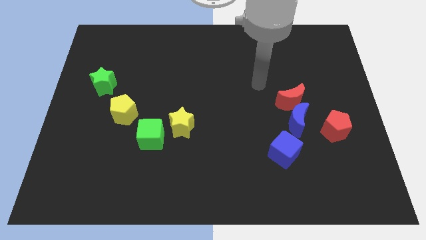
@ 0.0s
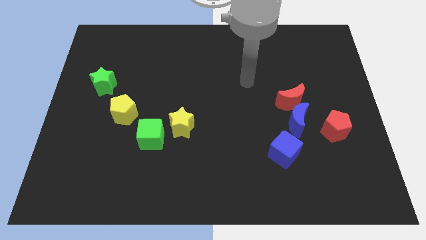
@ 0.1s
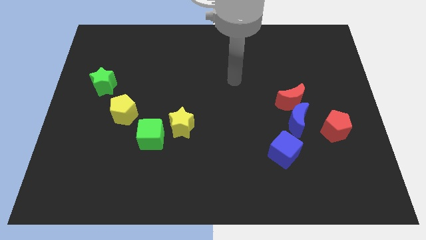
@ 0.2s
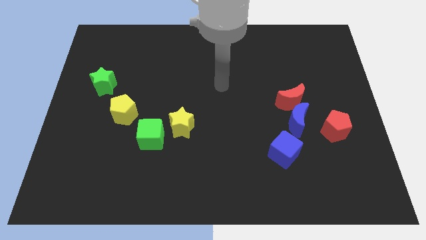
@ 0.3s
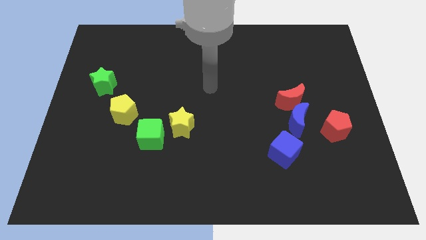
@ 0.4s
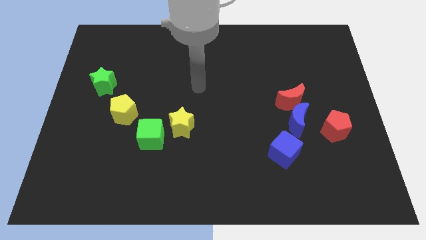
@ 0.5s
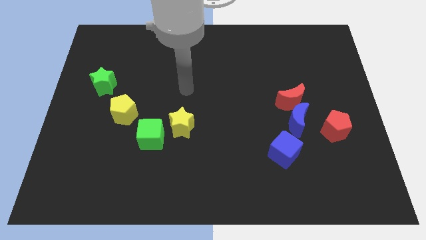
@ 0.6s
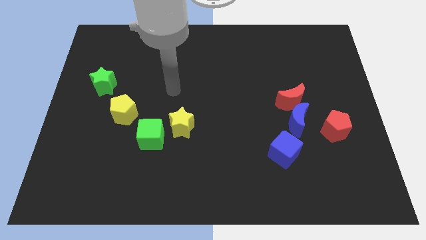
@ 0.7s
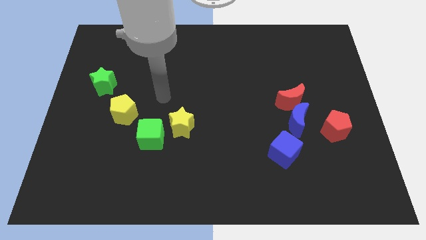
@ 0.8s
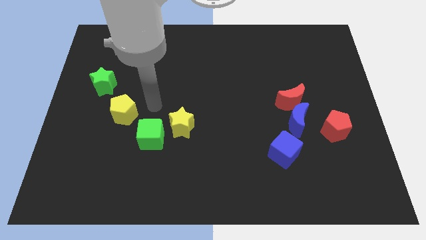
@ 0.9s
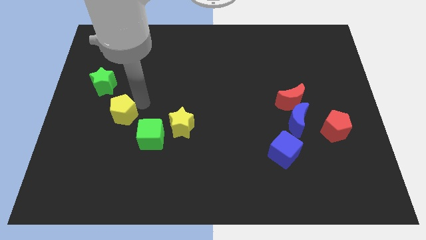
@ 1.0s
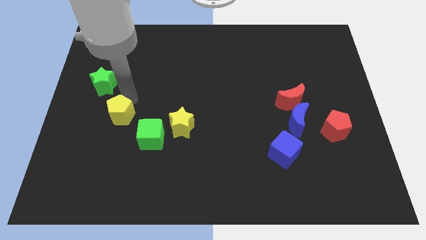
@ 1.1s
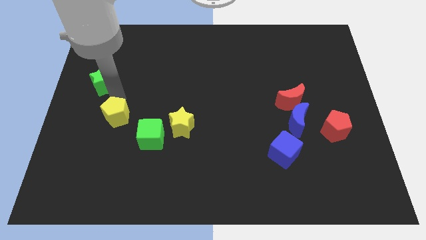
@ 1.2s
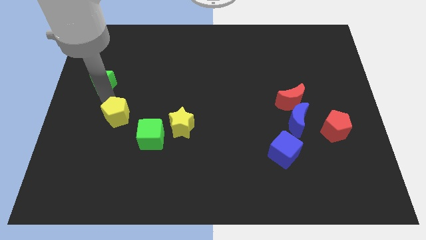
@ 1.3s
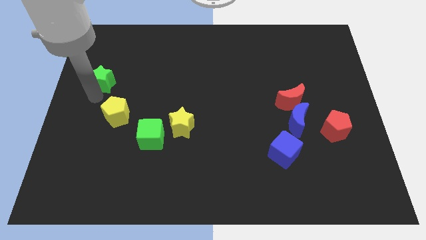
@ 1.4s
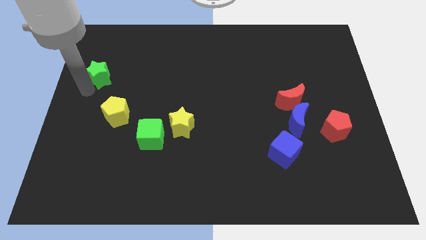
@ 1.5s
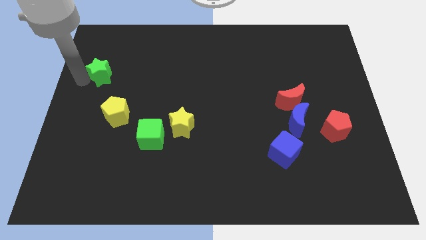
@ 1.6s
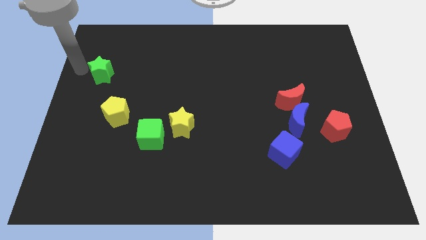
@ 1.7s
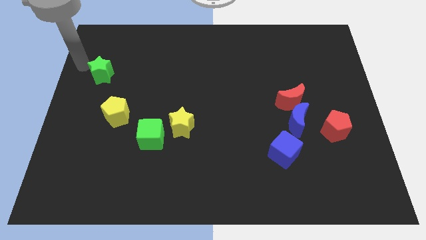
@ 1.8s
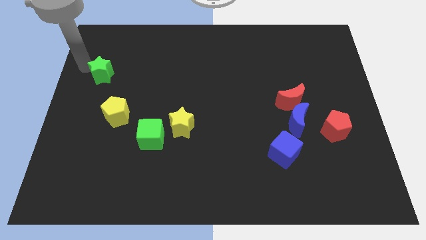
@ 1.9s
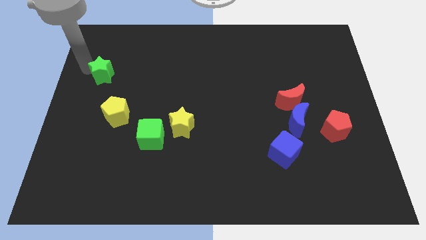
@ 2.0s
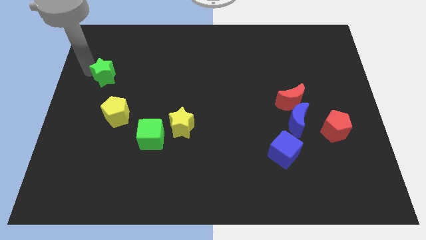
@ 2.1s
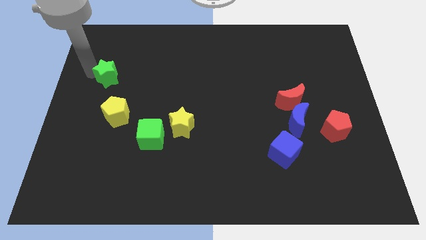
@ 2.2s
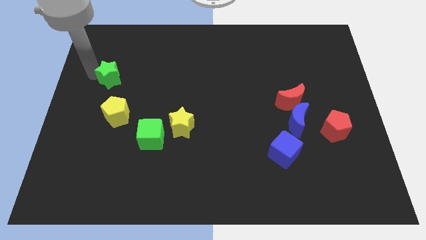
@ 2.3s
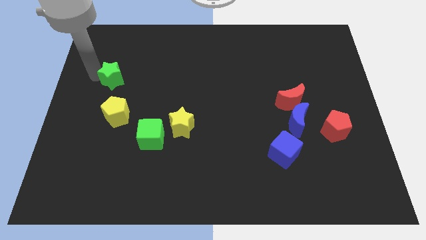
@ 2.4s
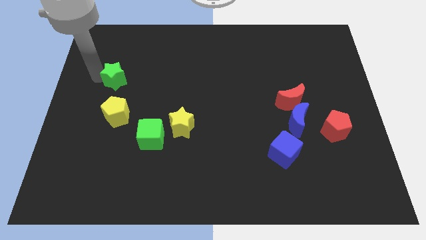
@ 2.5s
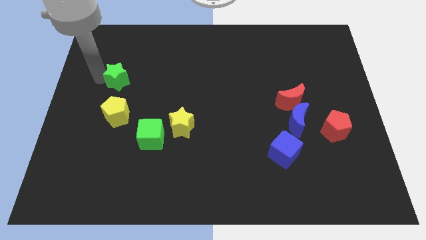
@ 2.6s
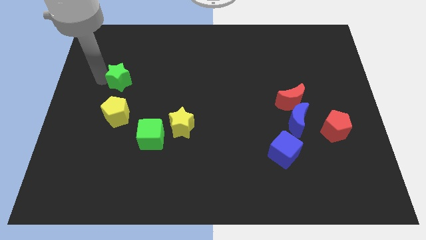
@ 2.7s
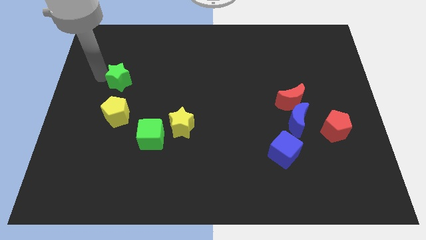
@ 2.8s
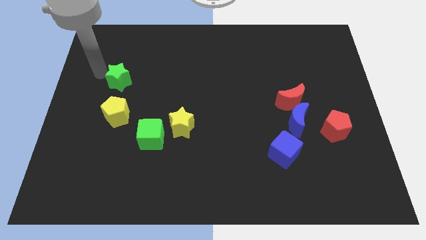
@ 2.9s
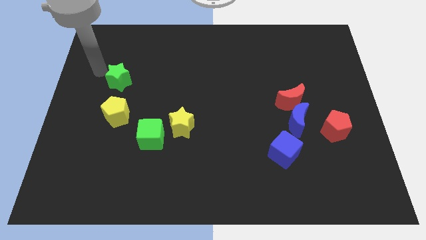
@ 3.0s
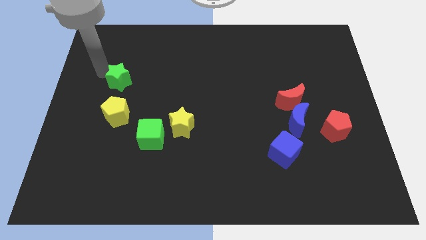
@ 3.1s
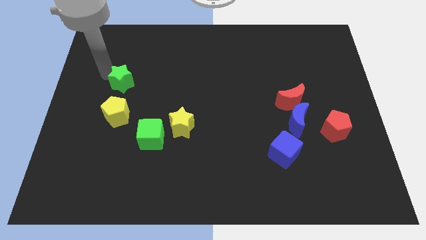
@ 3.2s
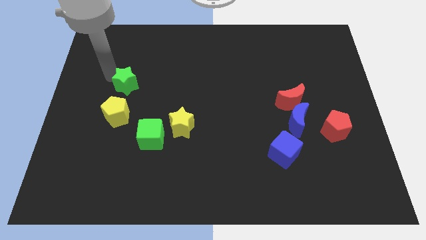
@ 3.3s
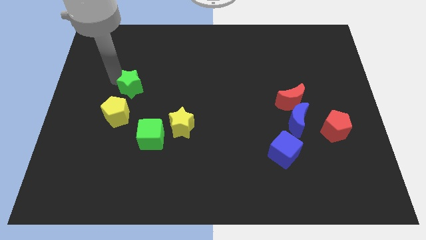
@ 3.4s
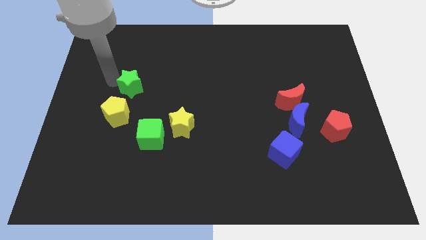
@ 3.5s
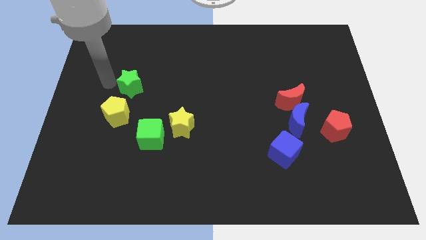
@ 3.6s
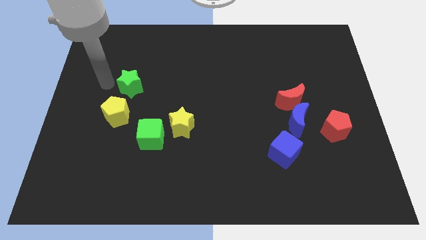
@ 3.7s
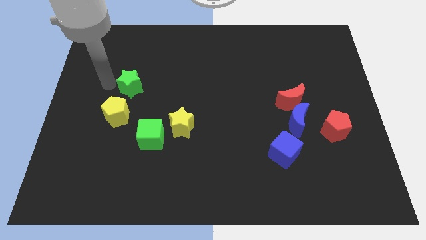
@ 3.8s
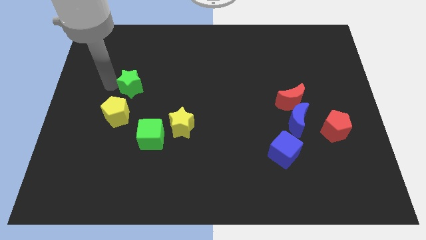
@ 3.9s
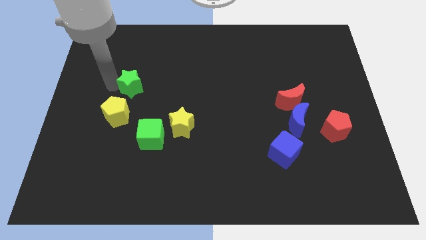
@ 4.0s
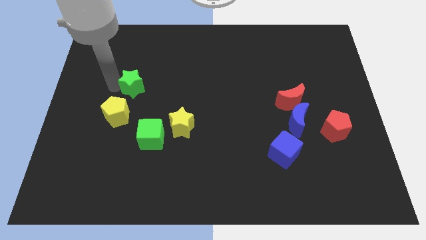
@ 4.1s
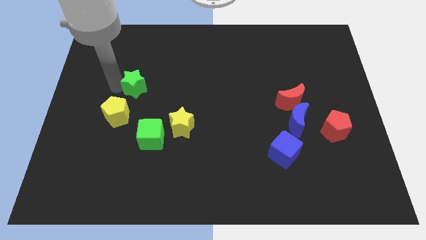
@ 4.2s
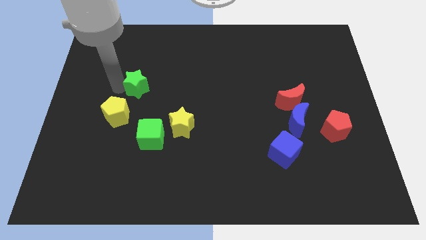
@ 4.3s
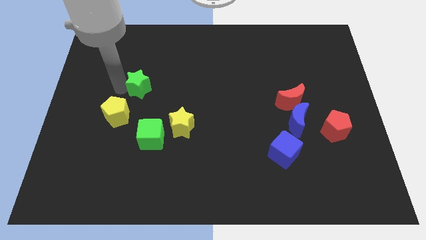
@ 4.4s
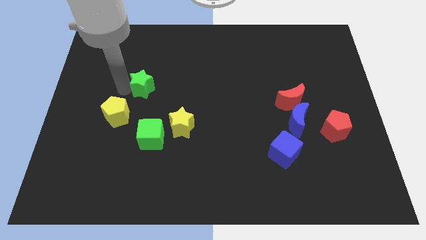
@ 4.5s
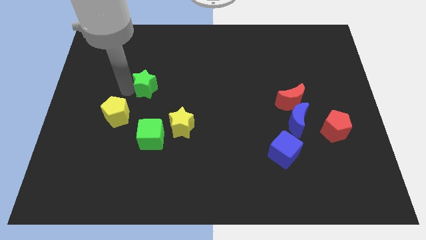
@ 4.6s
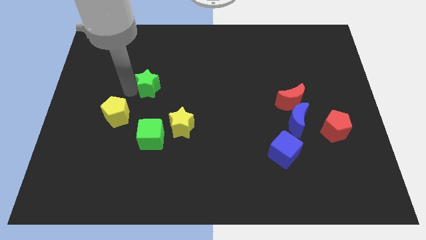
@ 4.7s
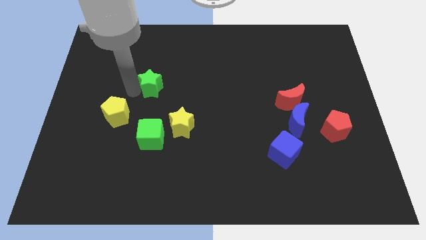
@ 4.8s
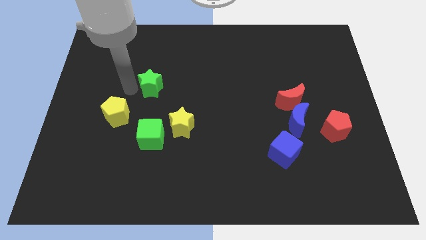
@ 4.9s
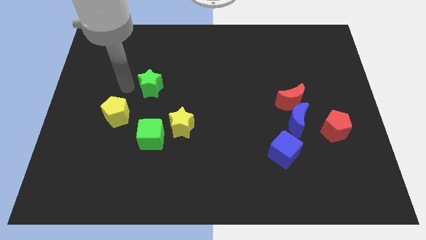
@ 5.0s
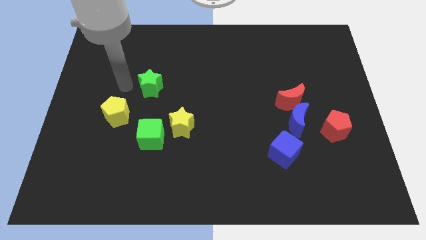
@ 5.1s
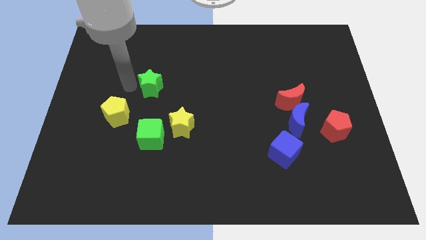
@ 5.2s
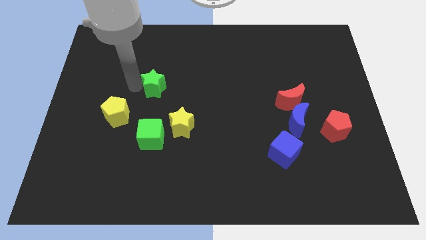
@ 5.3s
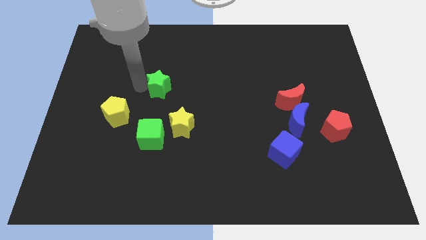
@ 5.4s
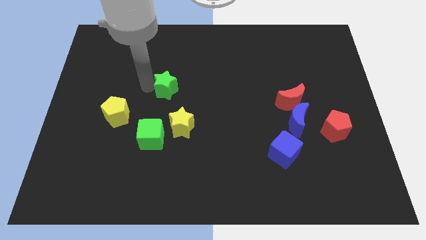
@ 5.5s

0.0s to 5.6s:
move the green star to the top side of the yellow star
